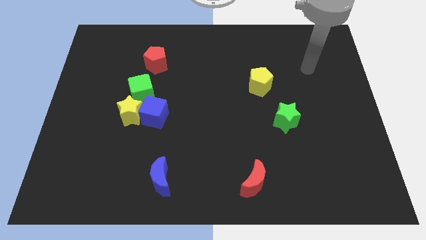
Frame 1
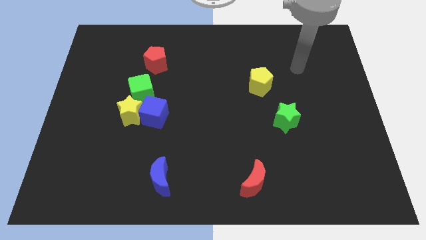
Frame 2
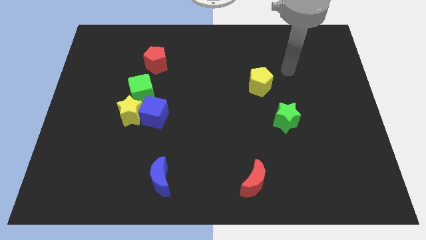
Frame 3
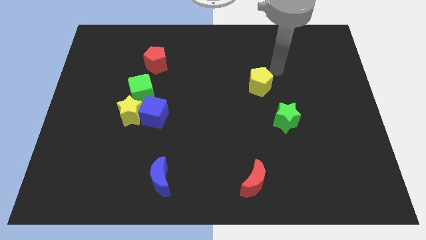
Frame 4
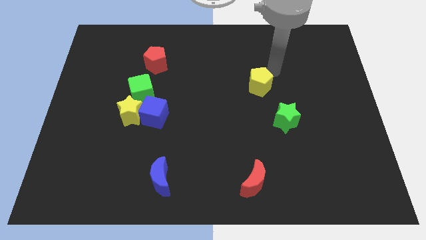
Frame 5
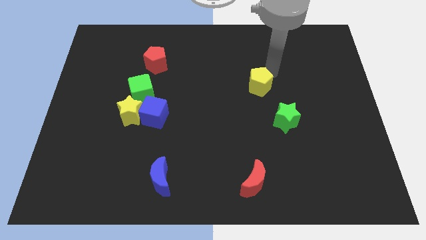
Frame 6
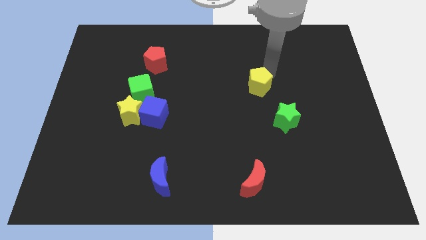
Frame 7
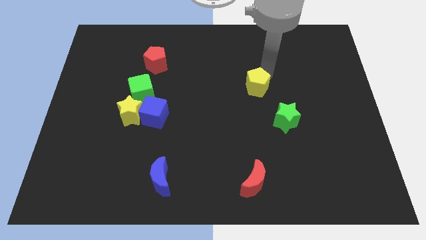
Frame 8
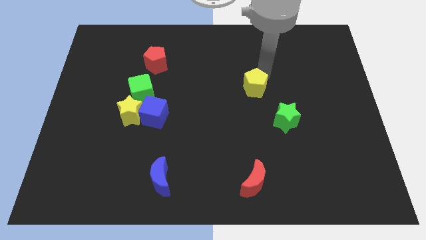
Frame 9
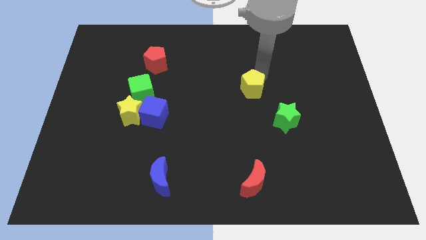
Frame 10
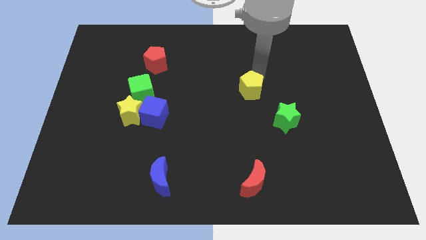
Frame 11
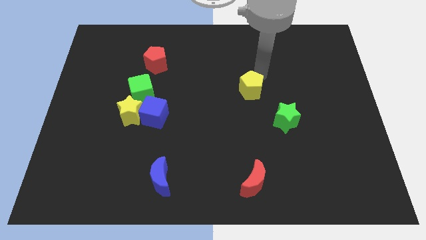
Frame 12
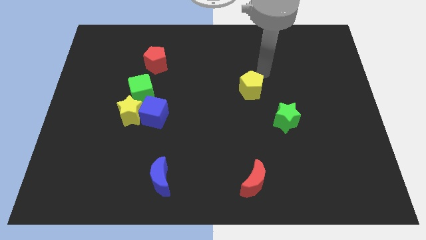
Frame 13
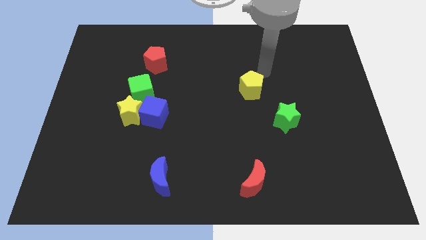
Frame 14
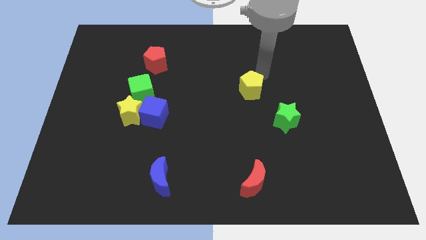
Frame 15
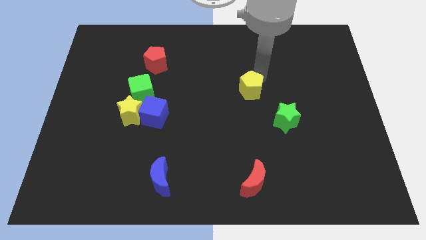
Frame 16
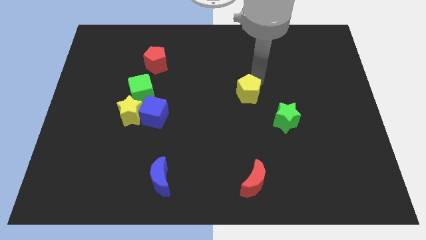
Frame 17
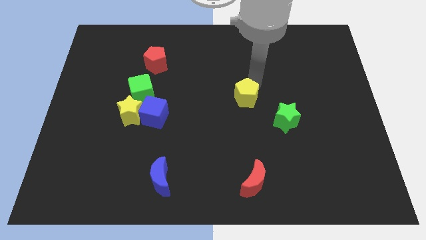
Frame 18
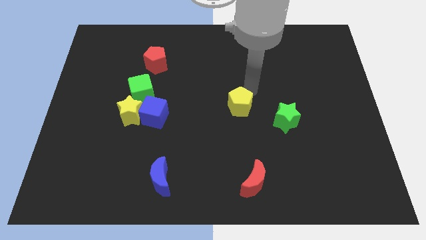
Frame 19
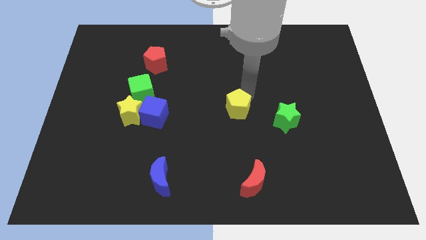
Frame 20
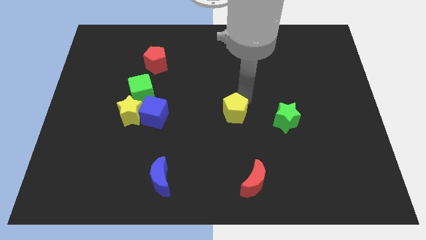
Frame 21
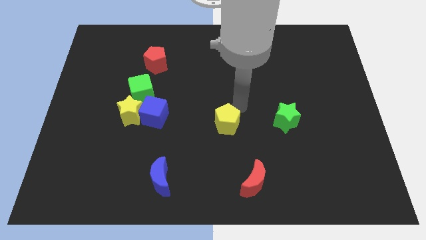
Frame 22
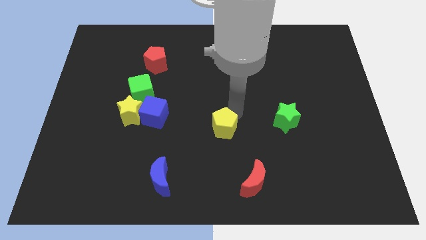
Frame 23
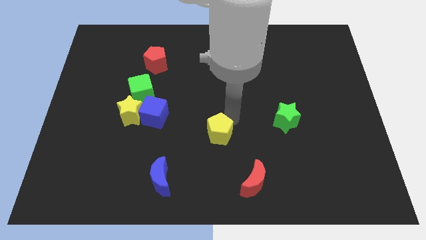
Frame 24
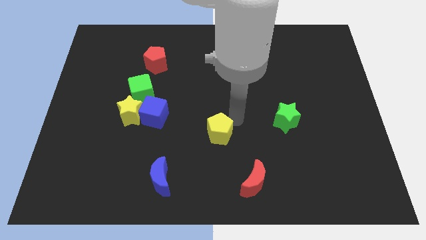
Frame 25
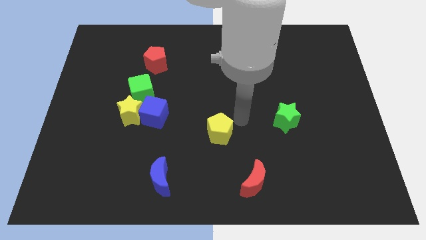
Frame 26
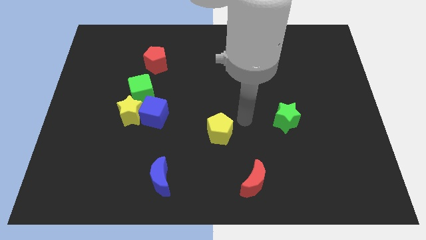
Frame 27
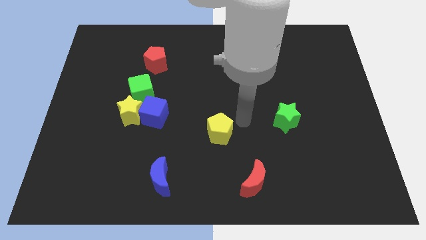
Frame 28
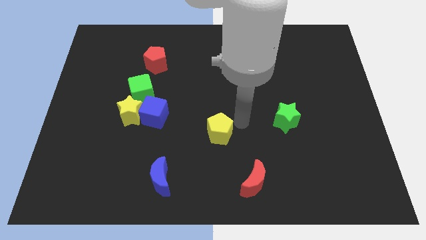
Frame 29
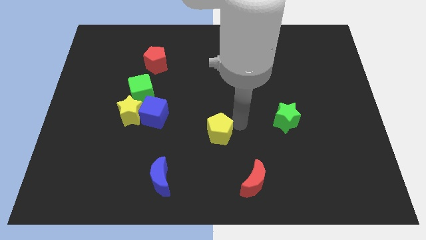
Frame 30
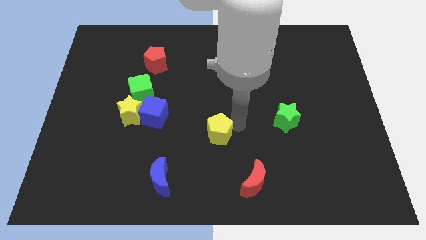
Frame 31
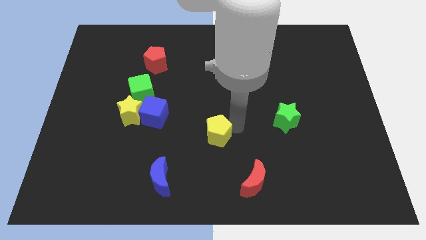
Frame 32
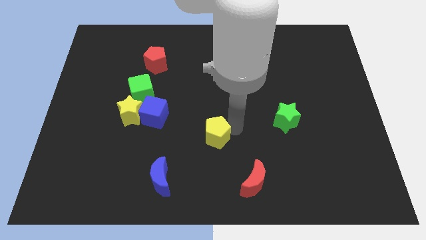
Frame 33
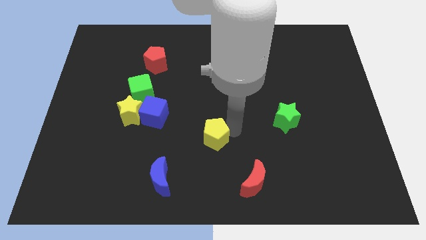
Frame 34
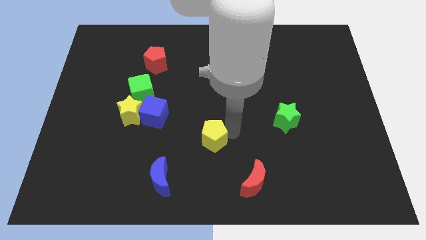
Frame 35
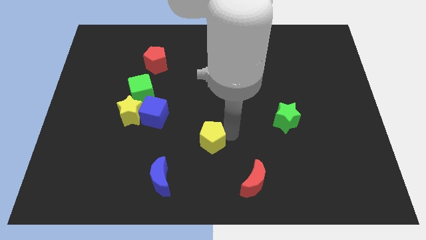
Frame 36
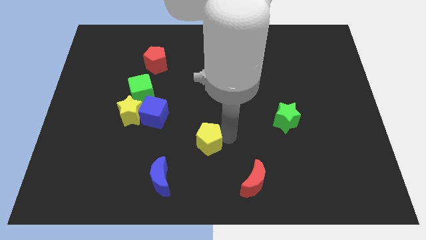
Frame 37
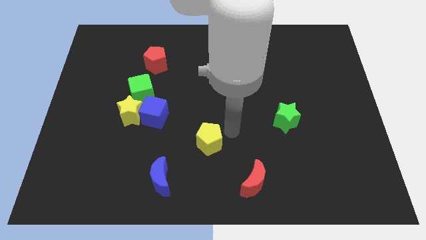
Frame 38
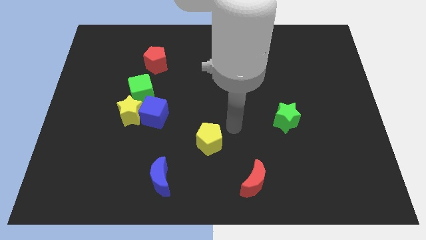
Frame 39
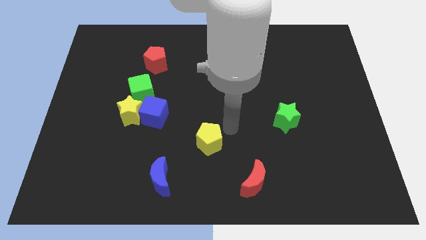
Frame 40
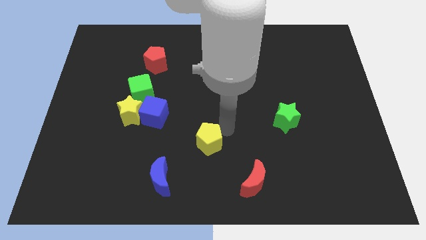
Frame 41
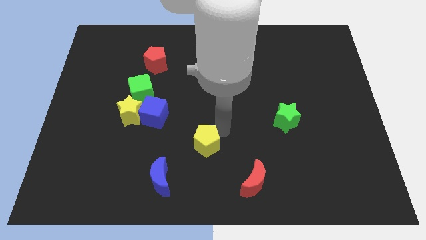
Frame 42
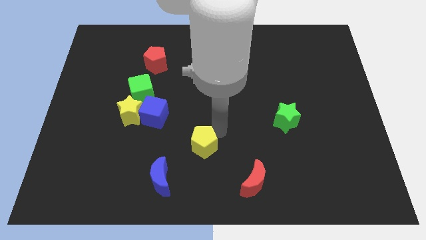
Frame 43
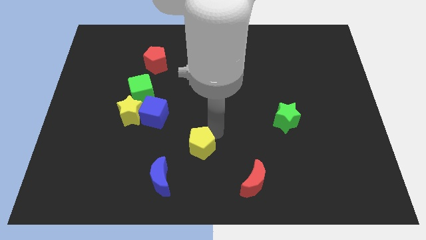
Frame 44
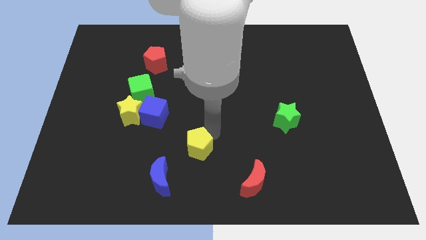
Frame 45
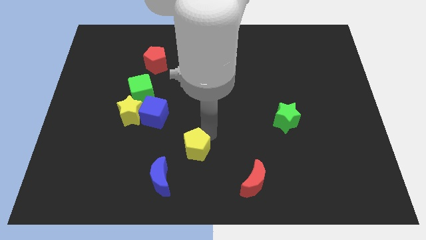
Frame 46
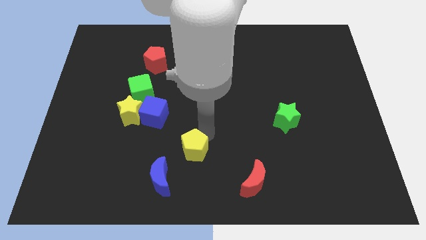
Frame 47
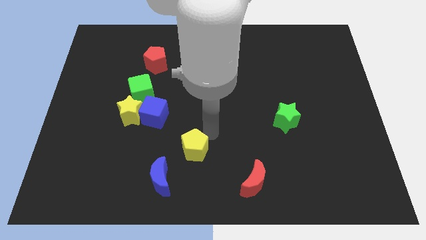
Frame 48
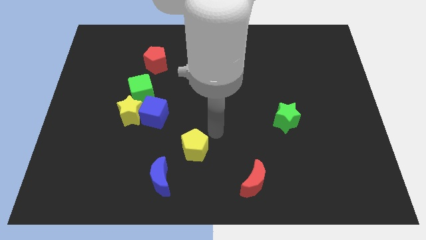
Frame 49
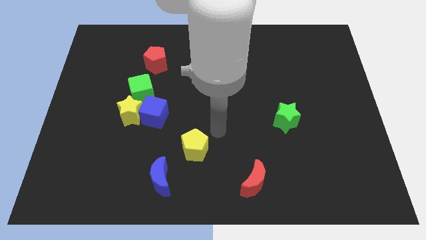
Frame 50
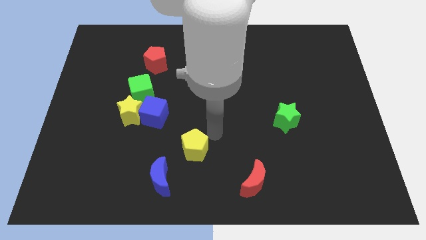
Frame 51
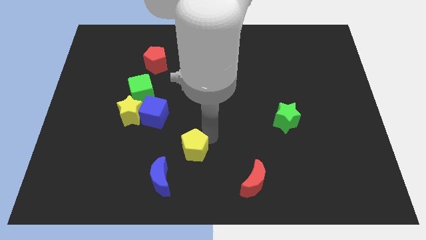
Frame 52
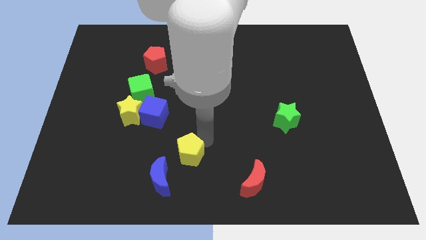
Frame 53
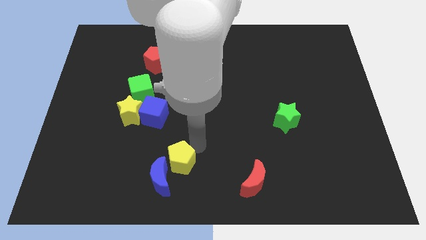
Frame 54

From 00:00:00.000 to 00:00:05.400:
move the yellow pentagon close to the blue moon

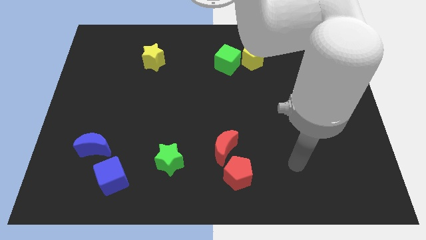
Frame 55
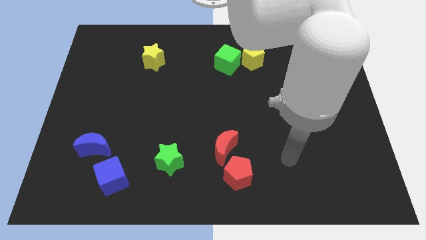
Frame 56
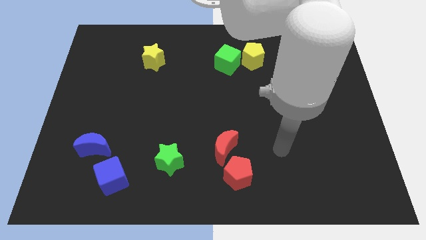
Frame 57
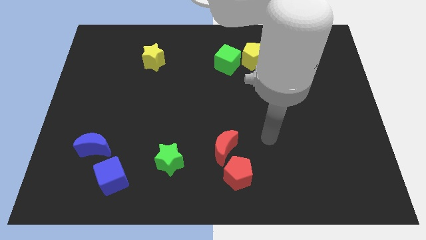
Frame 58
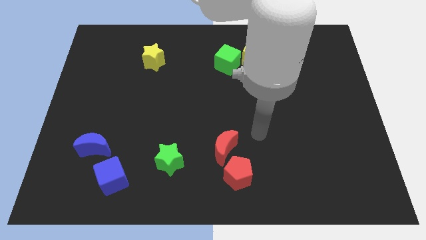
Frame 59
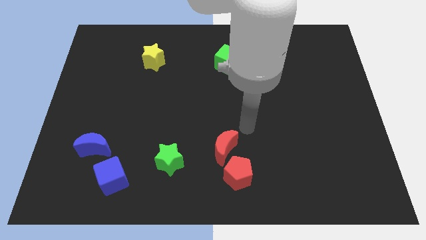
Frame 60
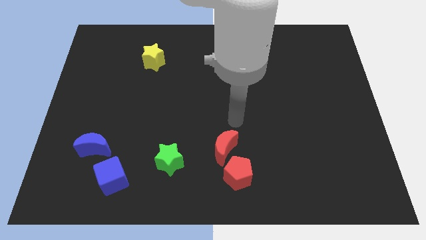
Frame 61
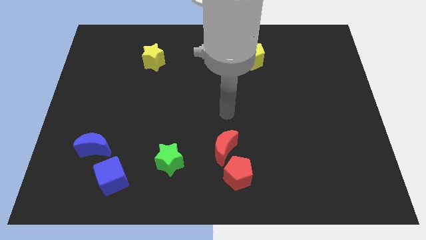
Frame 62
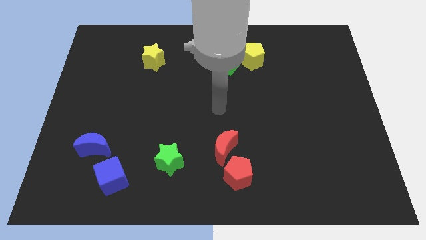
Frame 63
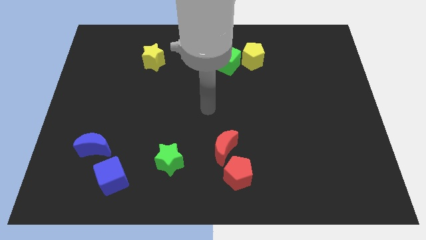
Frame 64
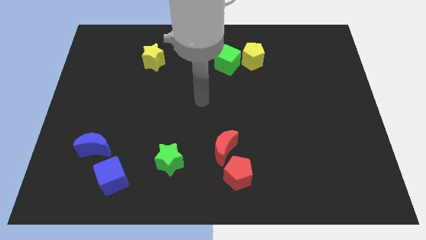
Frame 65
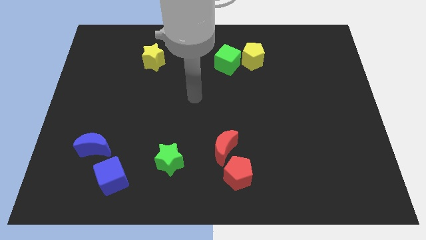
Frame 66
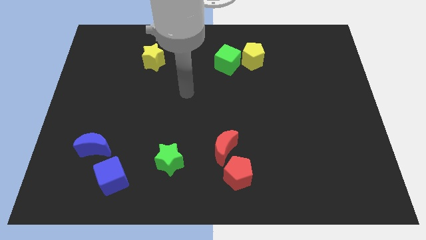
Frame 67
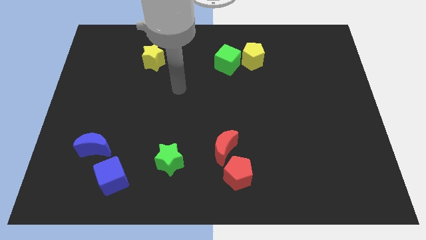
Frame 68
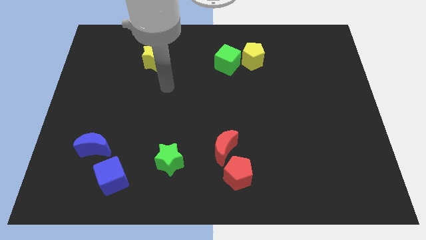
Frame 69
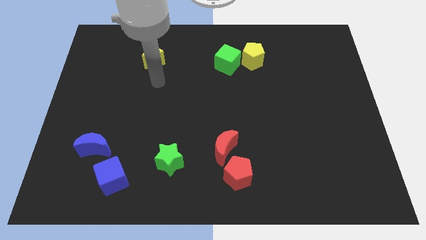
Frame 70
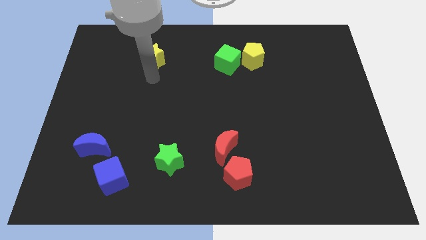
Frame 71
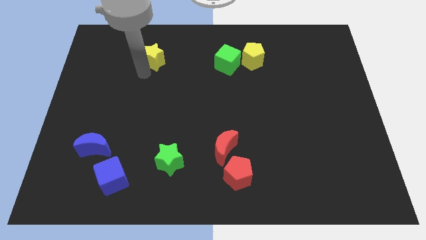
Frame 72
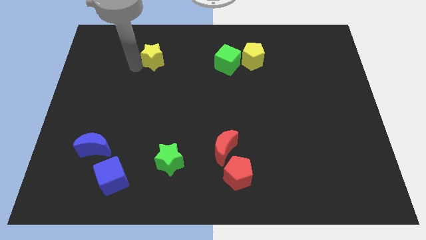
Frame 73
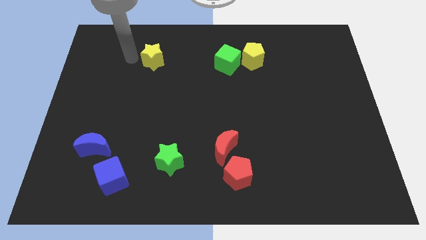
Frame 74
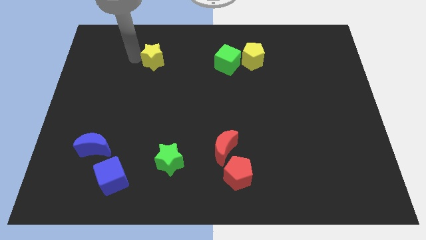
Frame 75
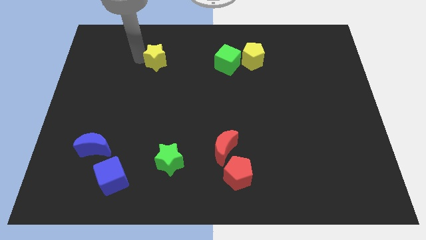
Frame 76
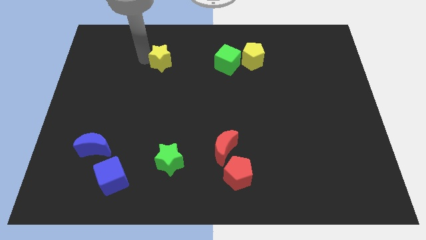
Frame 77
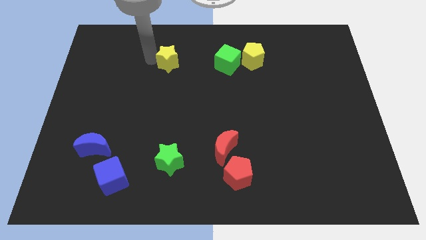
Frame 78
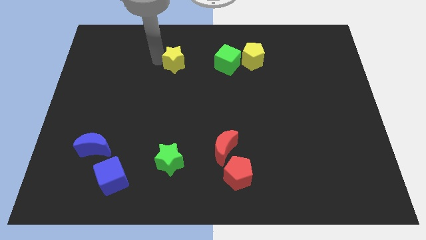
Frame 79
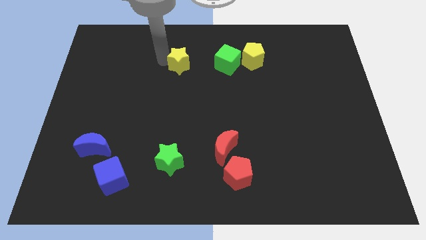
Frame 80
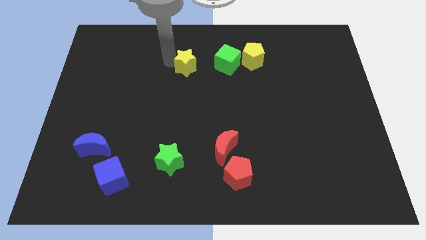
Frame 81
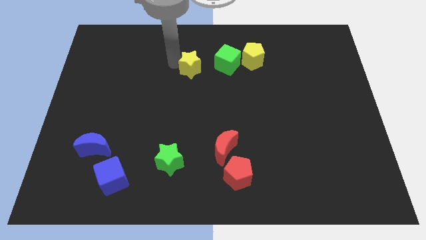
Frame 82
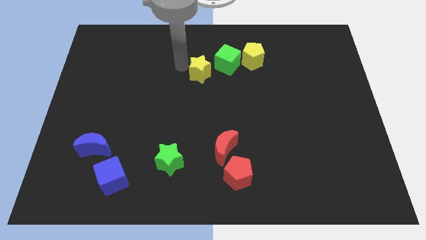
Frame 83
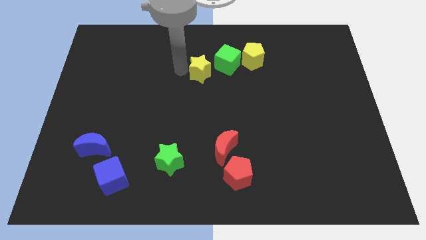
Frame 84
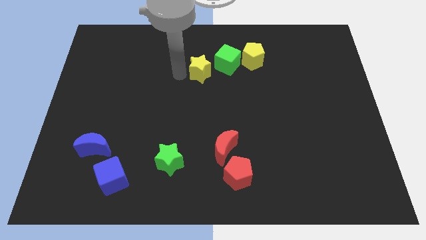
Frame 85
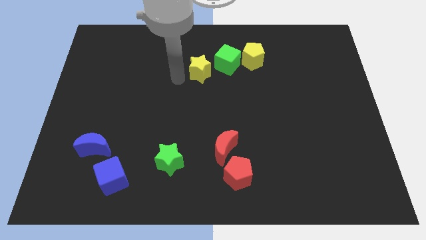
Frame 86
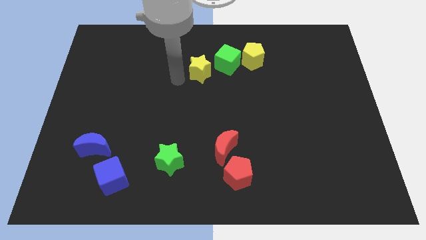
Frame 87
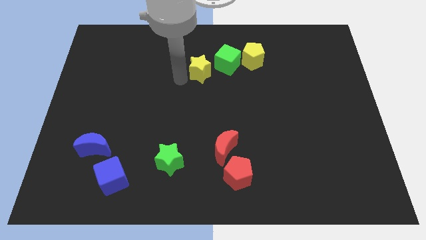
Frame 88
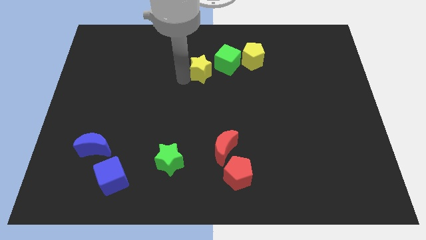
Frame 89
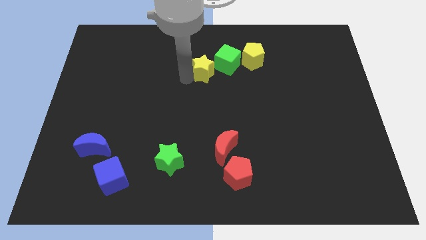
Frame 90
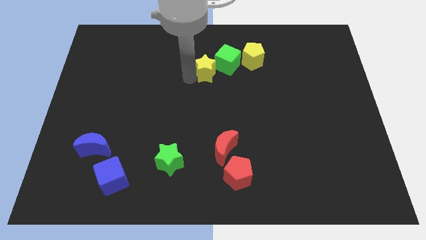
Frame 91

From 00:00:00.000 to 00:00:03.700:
put the yellow star close to the green cube
